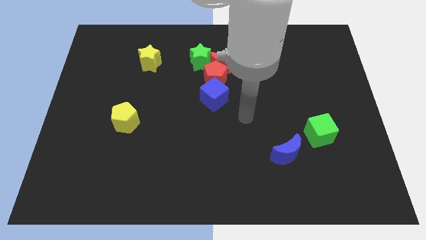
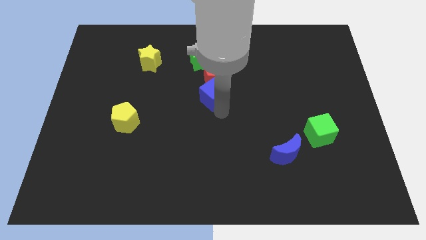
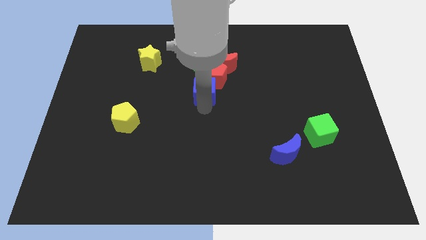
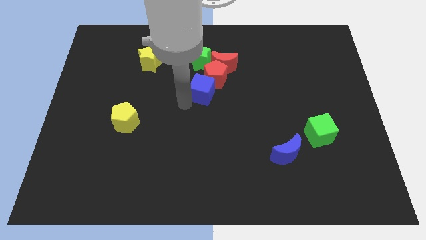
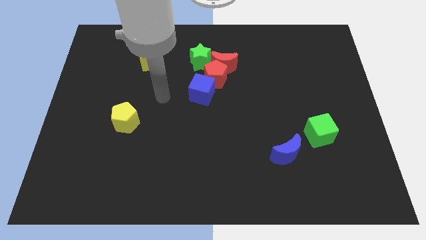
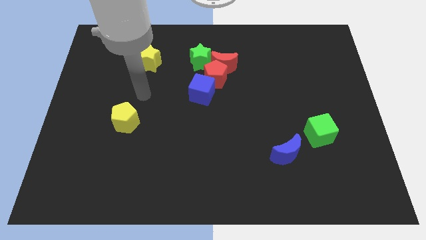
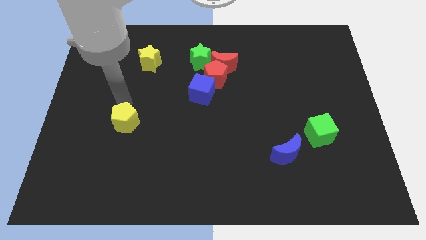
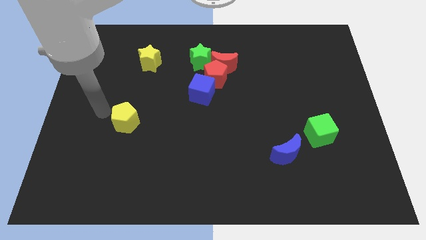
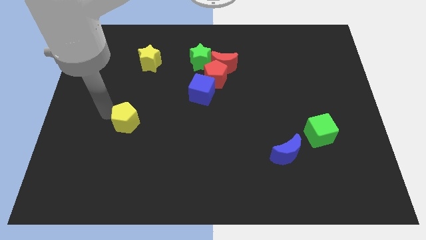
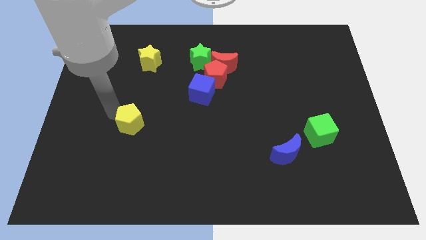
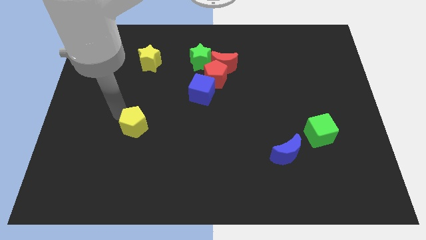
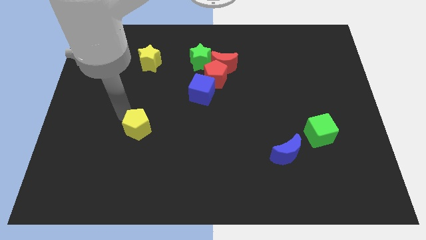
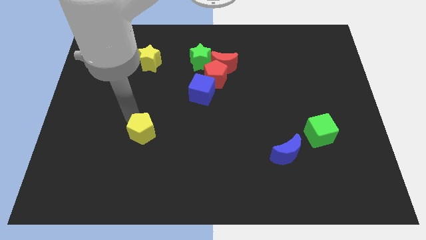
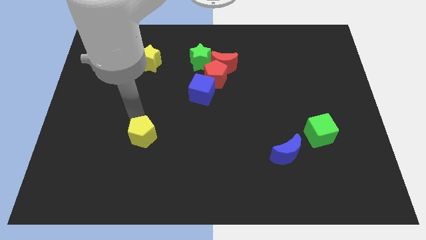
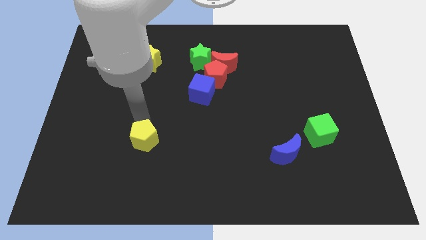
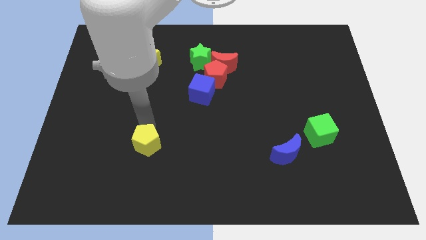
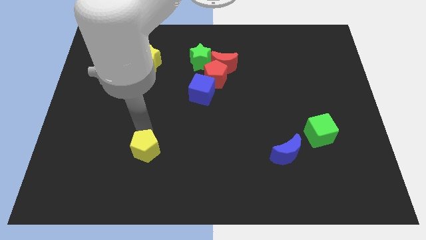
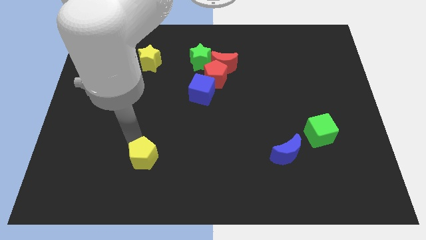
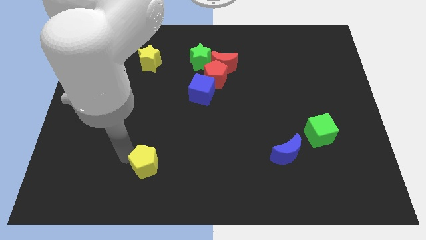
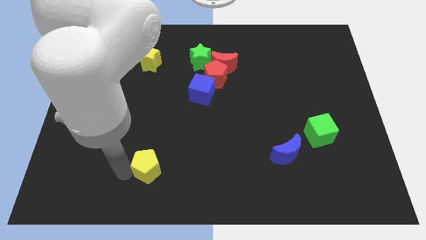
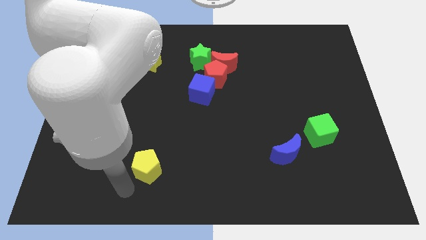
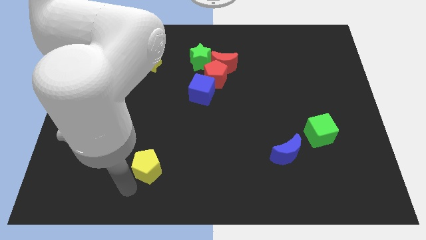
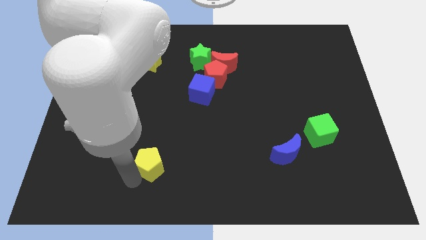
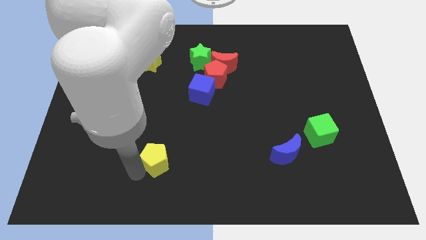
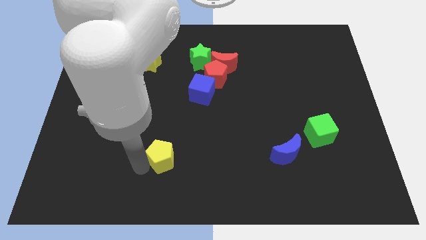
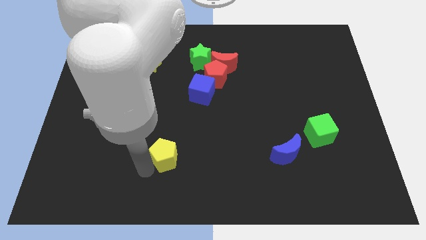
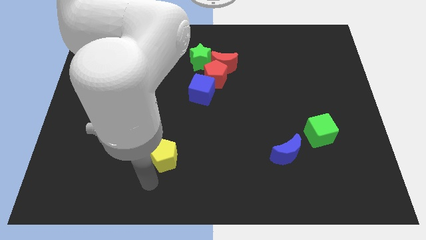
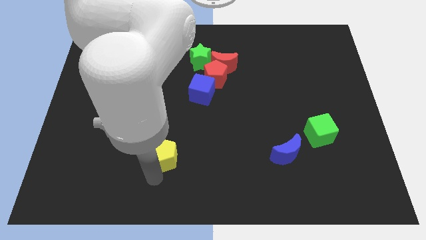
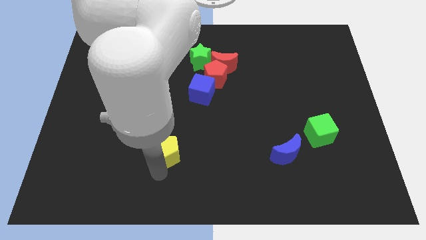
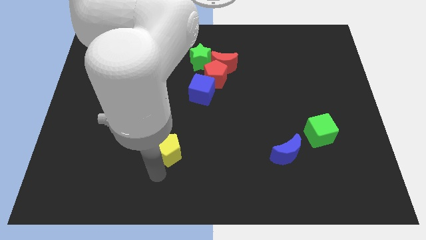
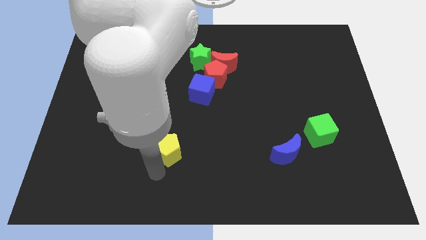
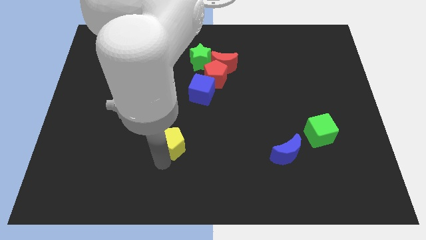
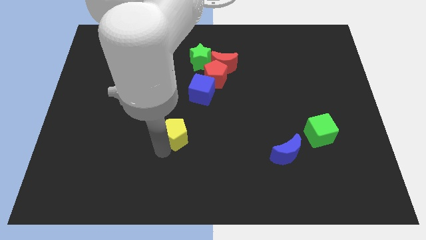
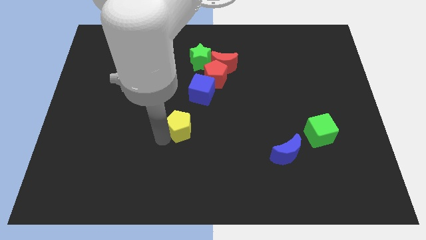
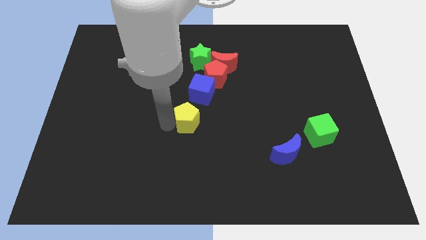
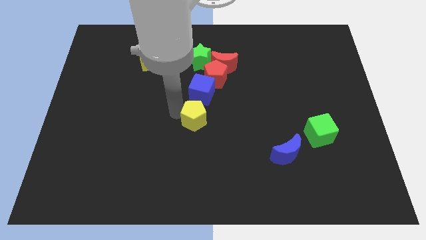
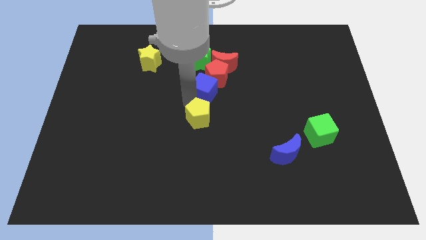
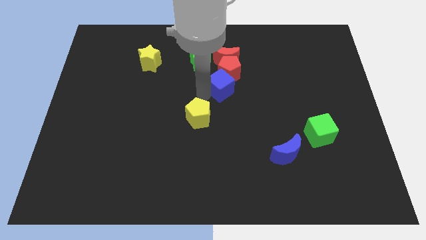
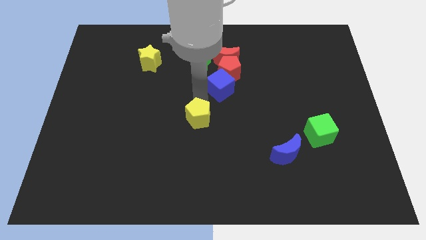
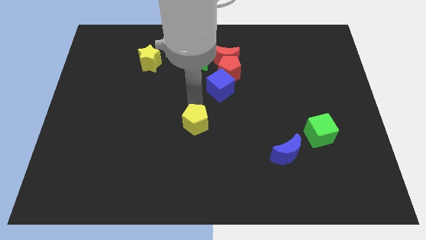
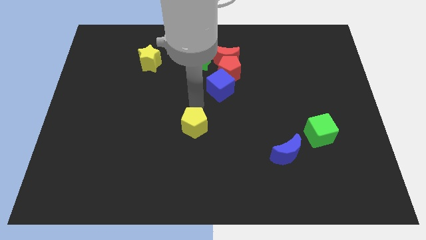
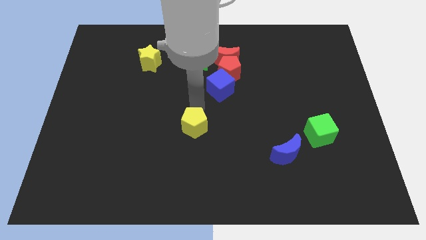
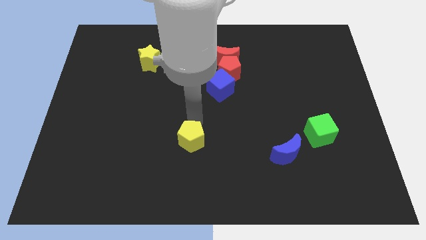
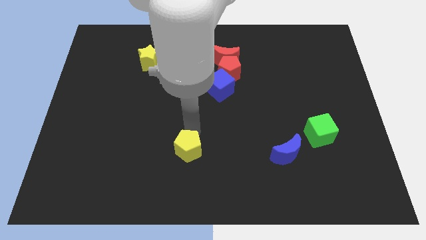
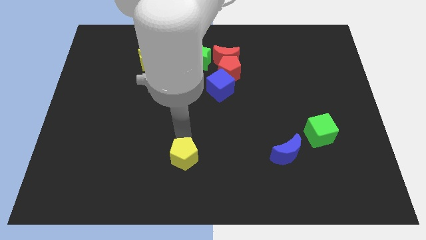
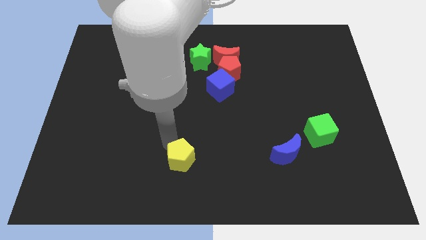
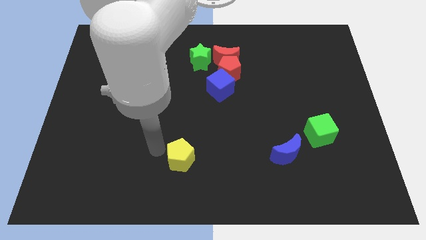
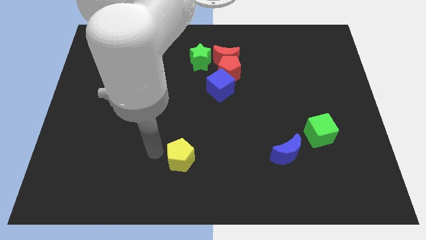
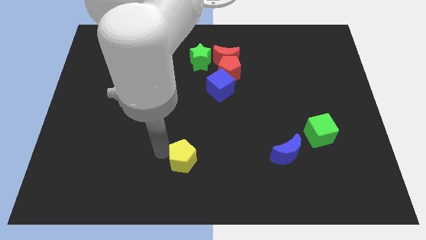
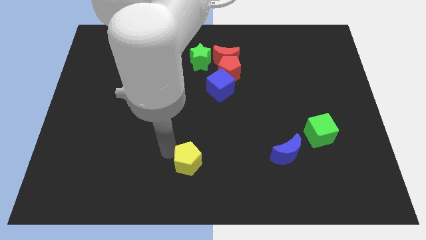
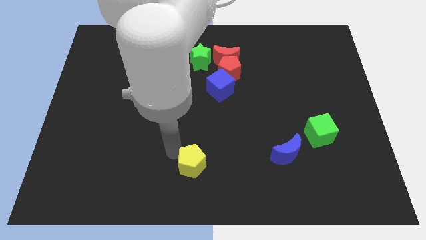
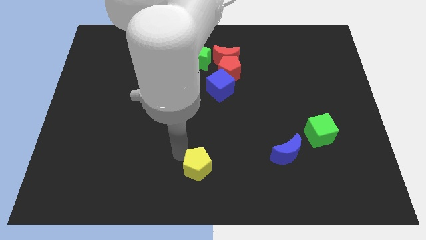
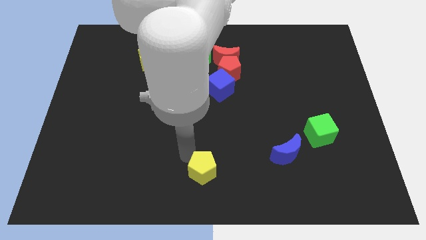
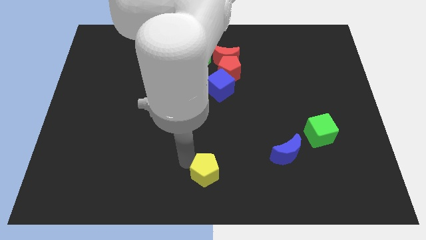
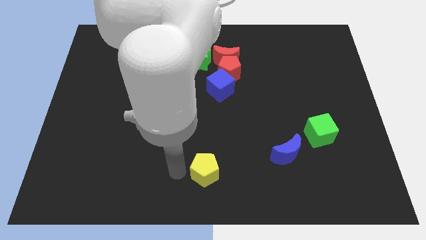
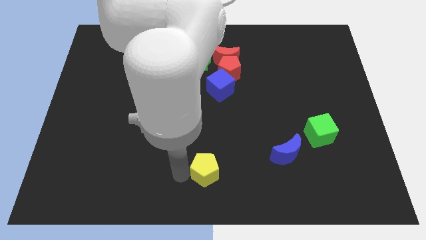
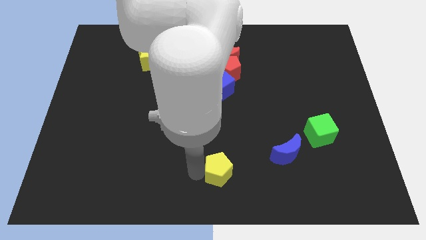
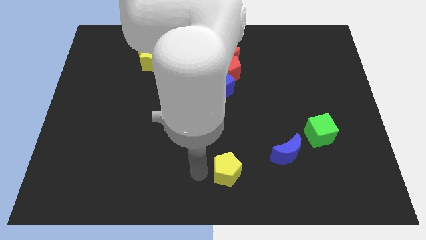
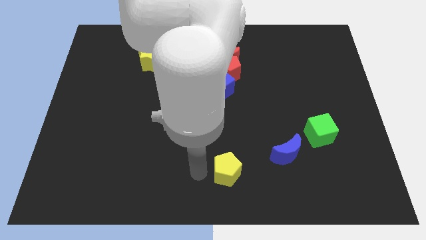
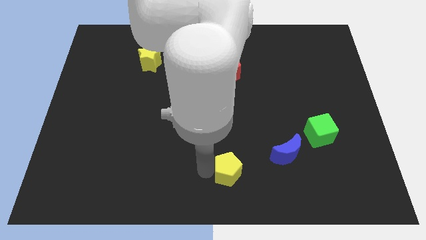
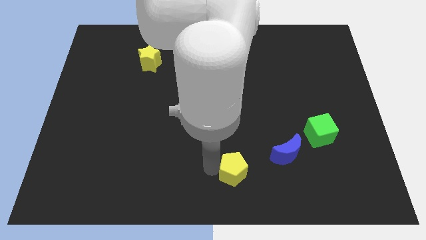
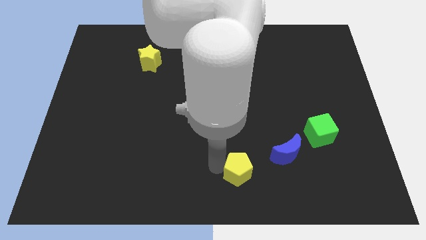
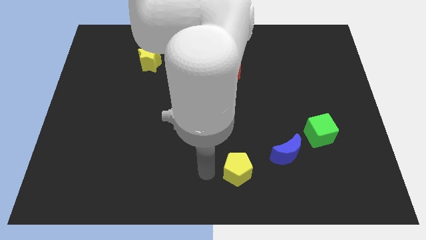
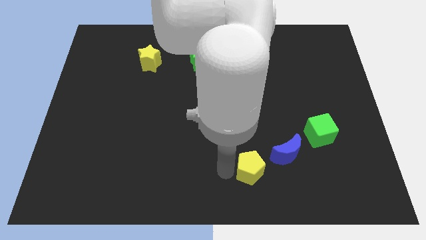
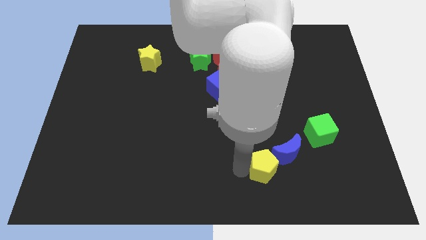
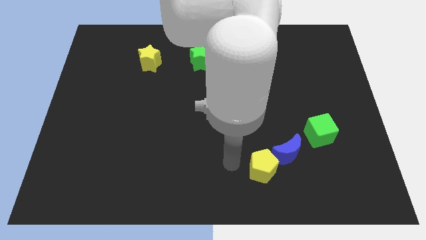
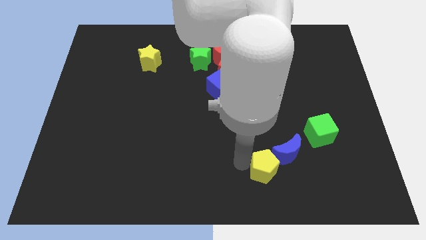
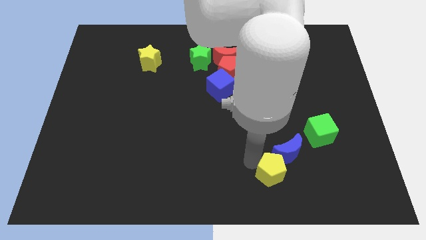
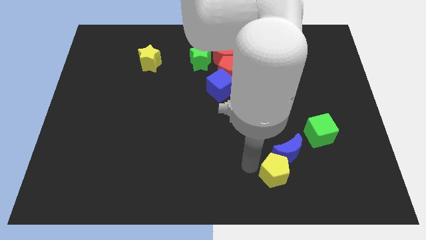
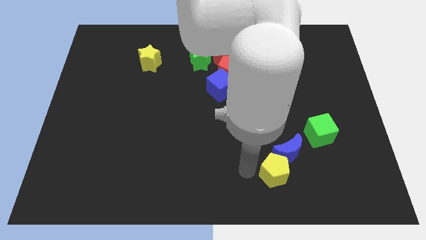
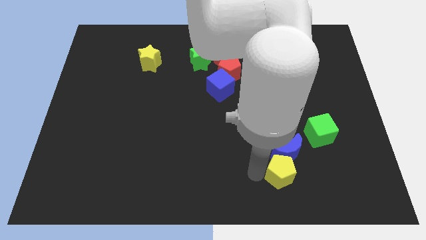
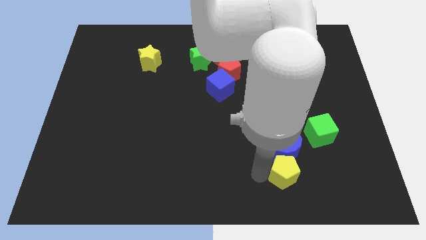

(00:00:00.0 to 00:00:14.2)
push the yellow pentagon to the bottom right of the blue moon
